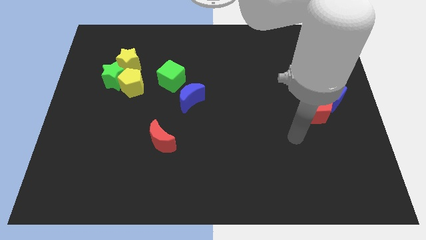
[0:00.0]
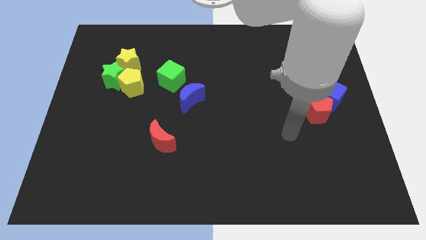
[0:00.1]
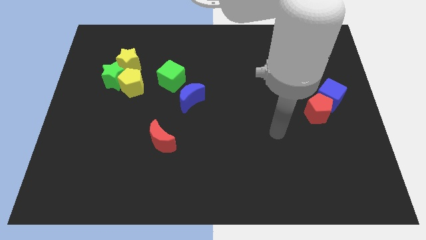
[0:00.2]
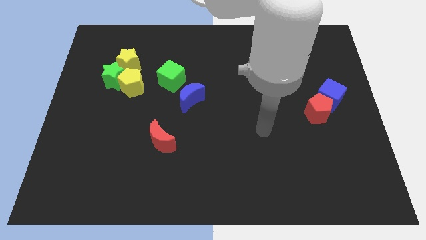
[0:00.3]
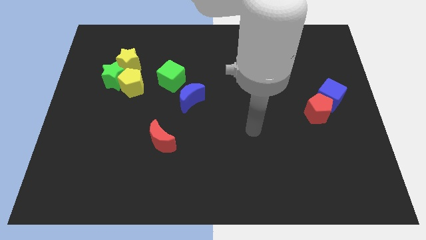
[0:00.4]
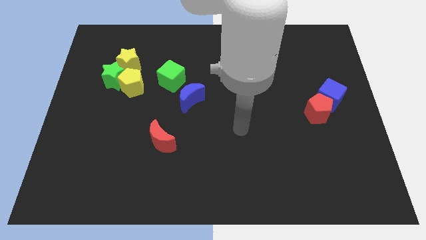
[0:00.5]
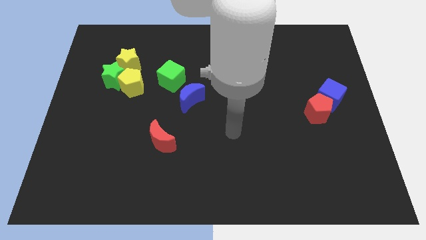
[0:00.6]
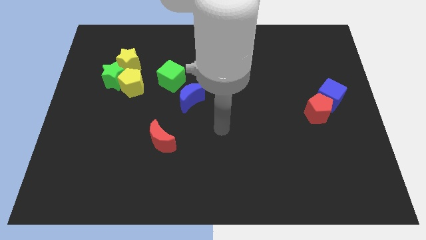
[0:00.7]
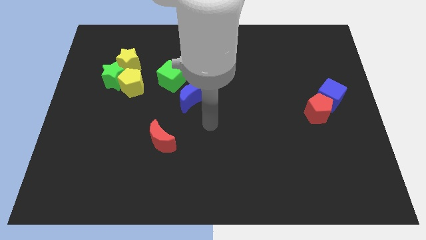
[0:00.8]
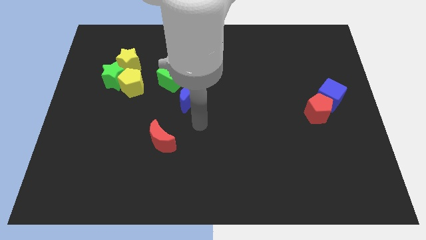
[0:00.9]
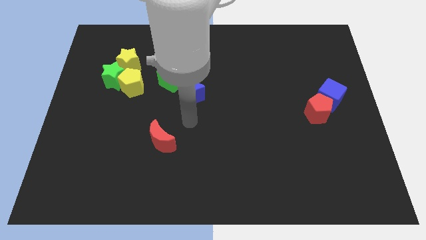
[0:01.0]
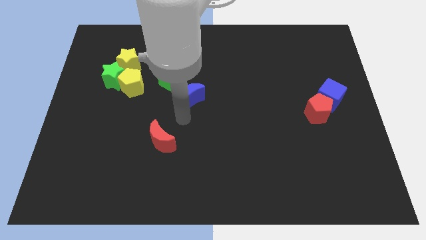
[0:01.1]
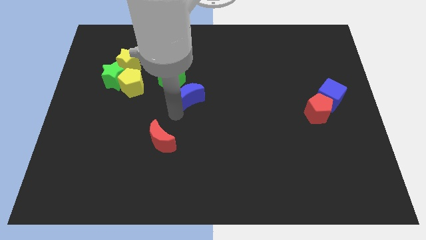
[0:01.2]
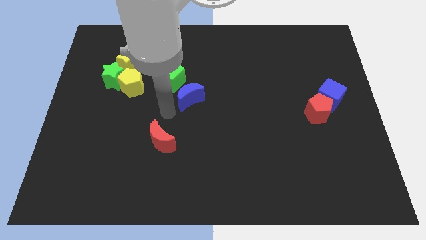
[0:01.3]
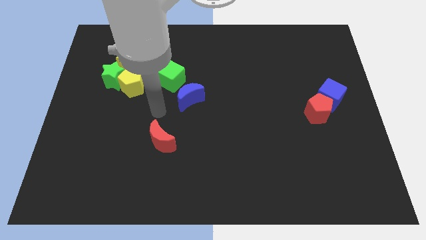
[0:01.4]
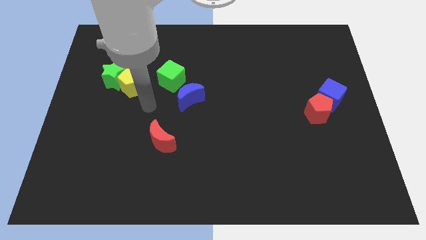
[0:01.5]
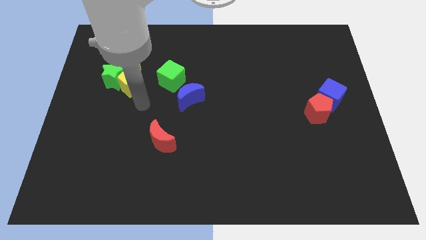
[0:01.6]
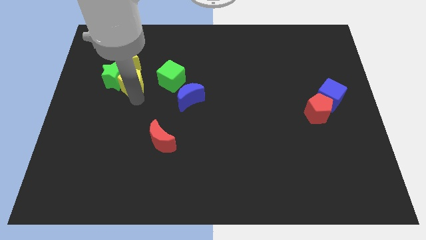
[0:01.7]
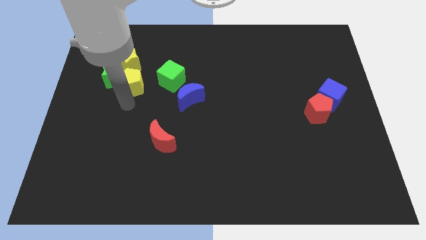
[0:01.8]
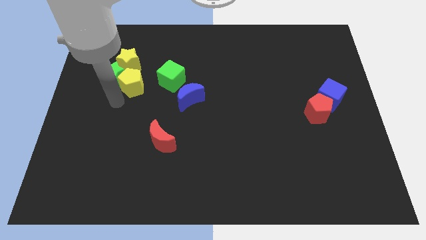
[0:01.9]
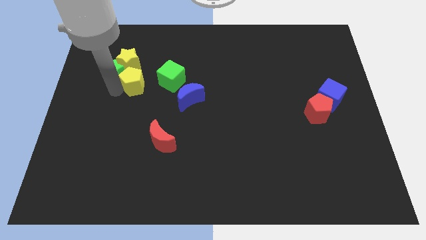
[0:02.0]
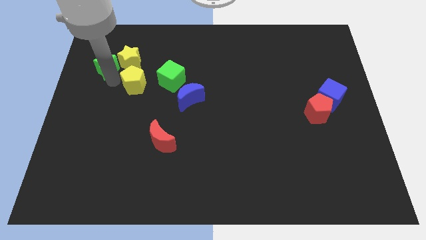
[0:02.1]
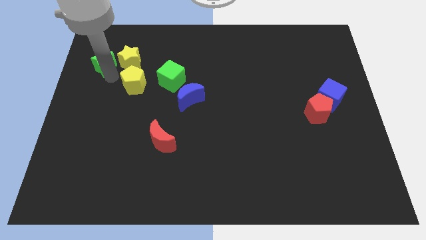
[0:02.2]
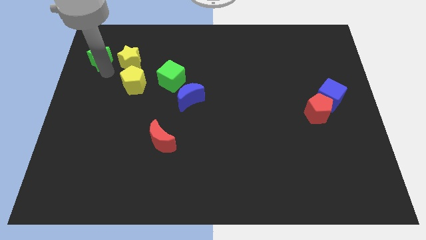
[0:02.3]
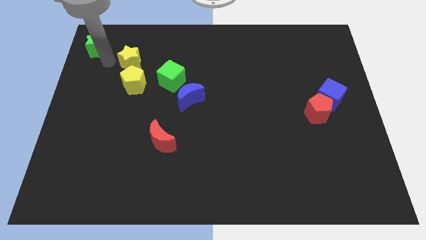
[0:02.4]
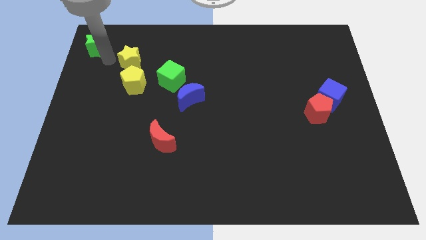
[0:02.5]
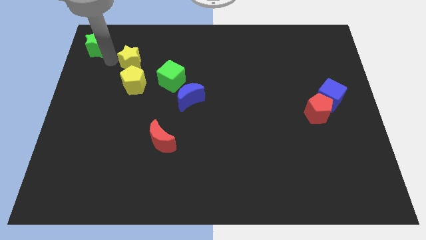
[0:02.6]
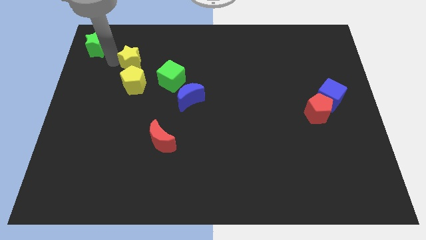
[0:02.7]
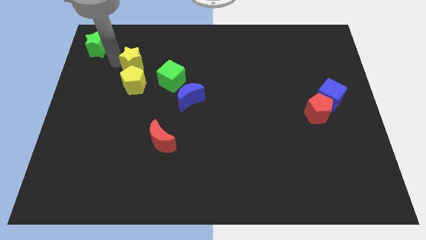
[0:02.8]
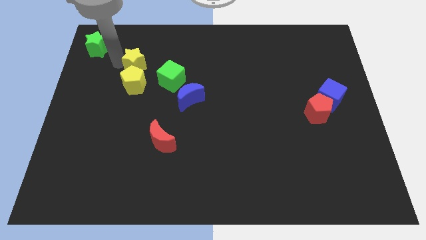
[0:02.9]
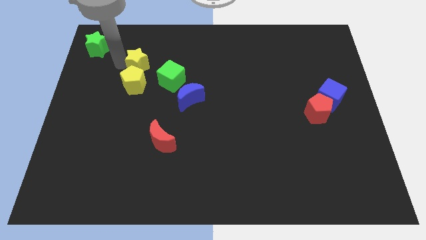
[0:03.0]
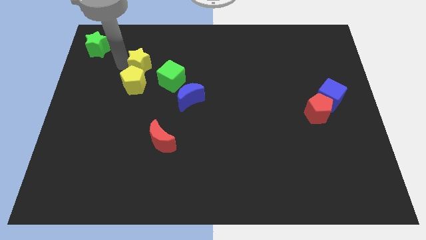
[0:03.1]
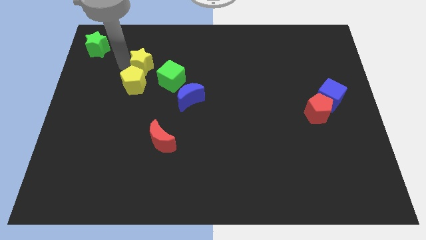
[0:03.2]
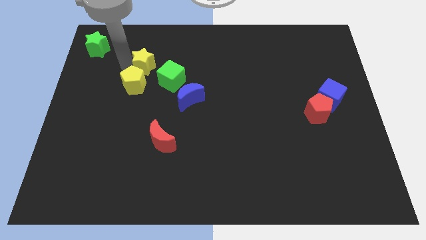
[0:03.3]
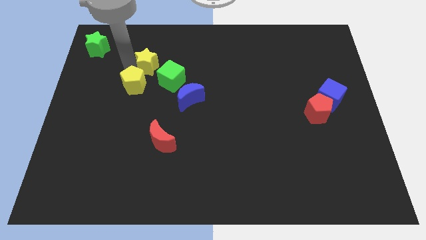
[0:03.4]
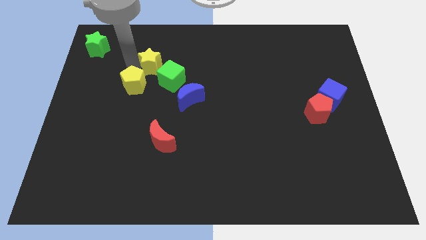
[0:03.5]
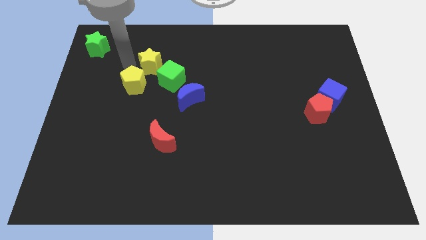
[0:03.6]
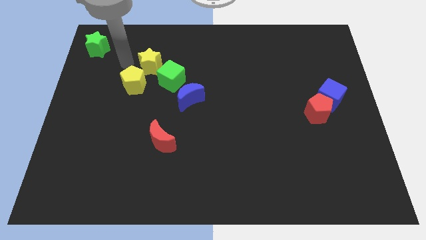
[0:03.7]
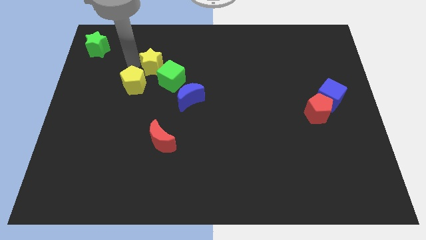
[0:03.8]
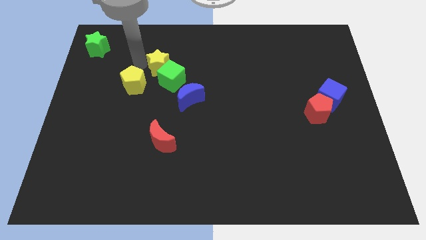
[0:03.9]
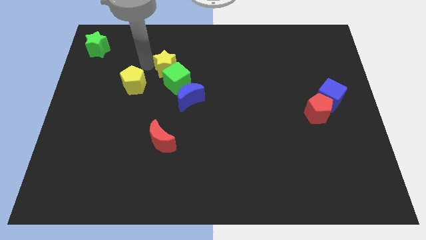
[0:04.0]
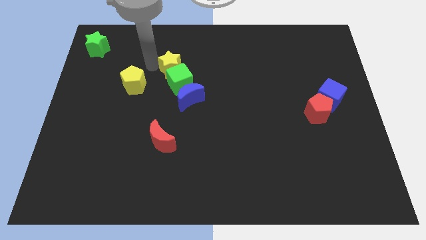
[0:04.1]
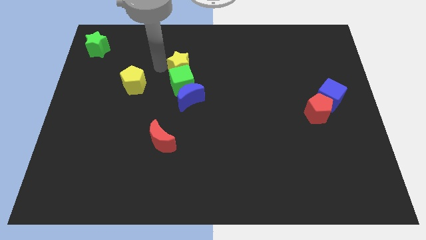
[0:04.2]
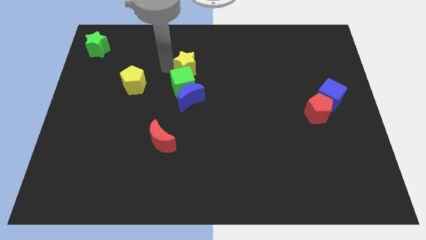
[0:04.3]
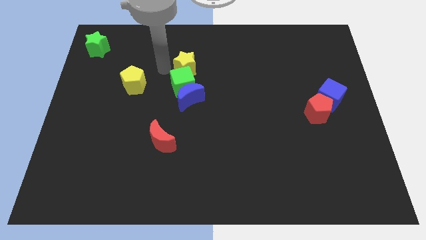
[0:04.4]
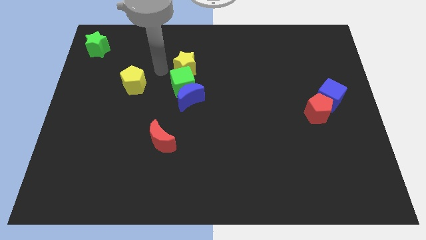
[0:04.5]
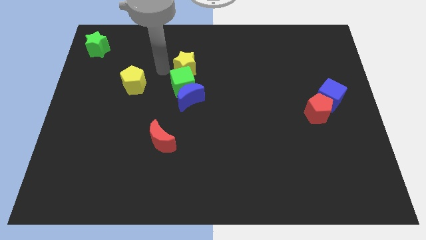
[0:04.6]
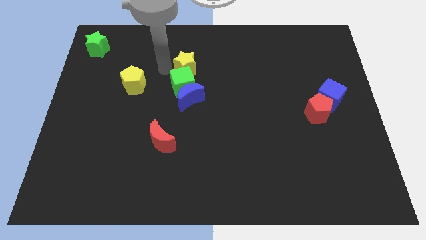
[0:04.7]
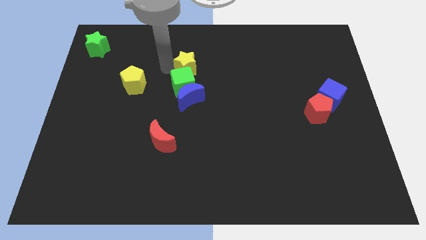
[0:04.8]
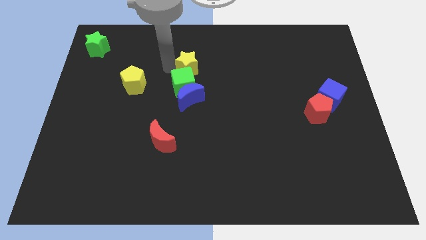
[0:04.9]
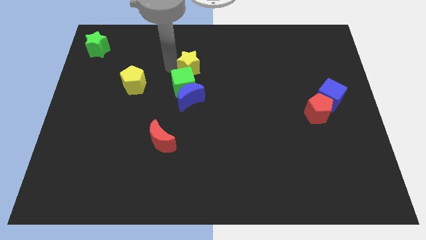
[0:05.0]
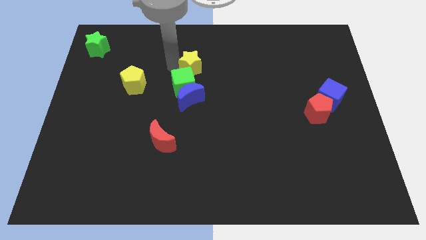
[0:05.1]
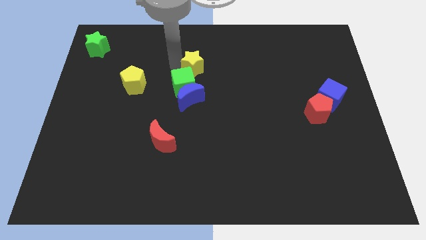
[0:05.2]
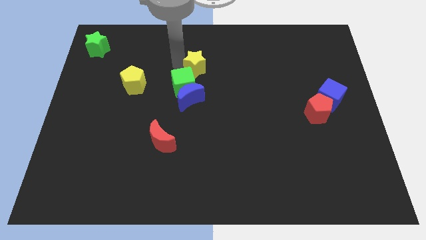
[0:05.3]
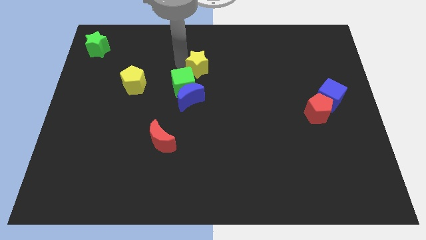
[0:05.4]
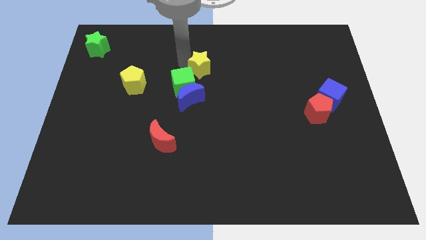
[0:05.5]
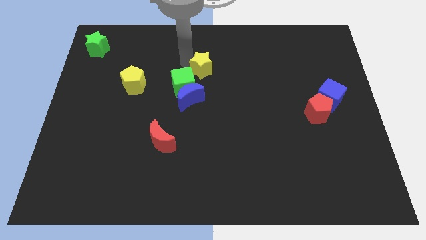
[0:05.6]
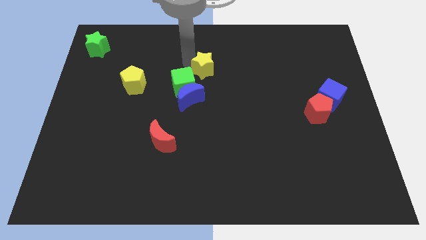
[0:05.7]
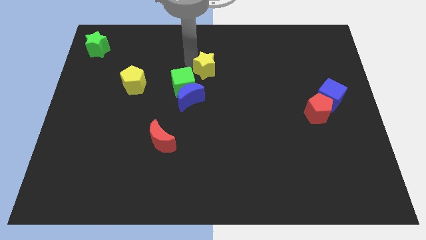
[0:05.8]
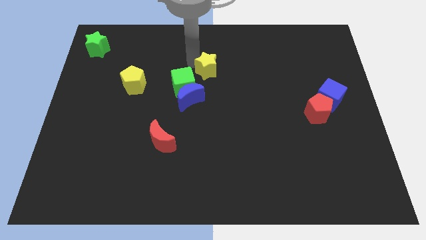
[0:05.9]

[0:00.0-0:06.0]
push the yellow star to the right

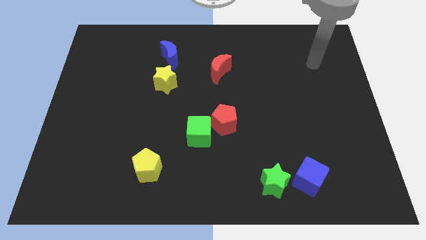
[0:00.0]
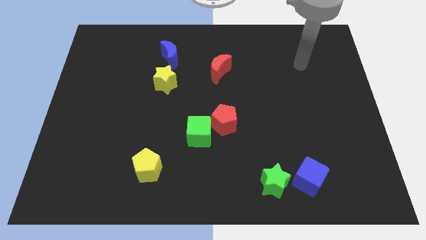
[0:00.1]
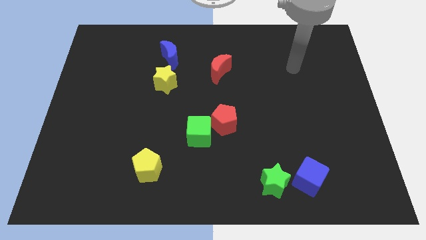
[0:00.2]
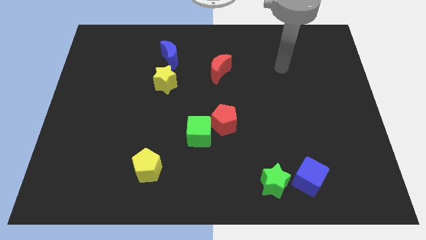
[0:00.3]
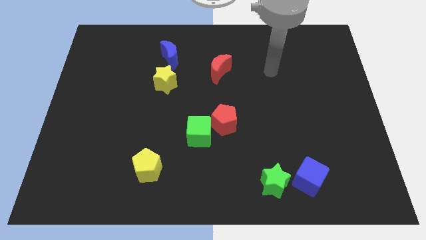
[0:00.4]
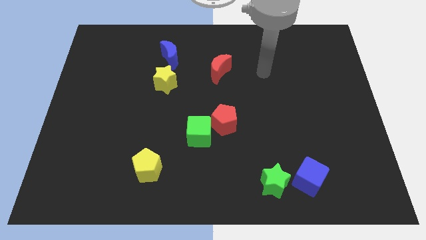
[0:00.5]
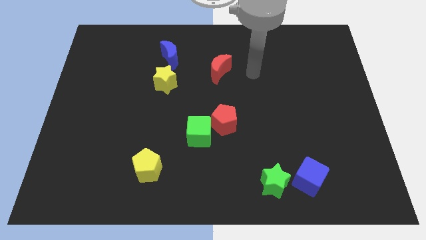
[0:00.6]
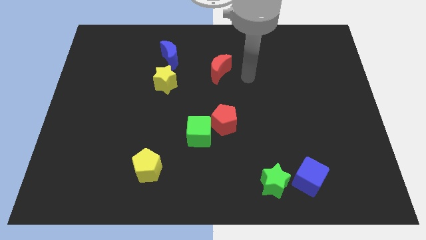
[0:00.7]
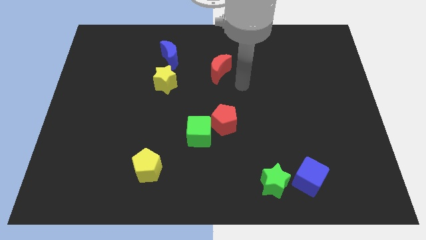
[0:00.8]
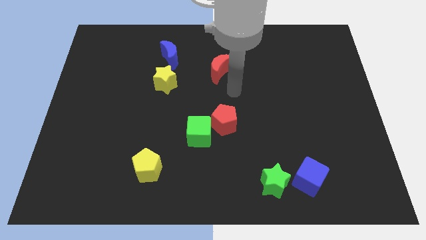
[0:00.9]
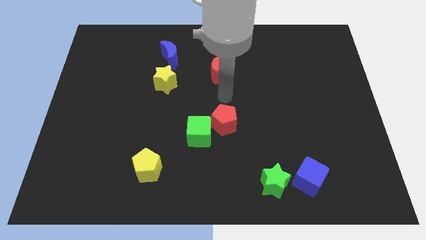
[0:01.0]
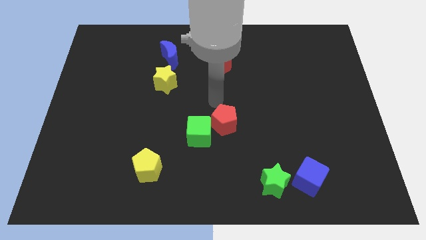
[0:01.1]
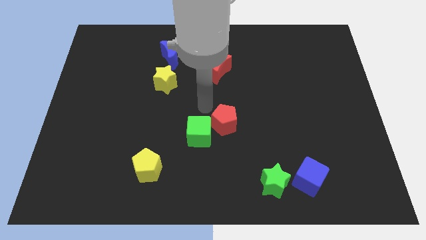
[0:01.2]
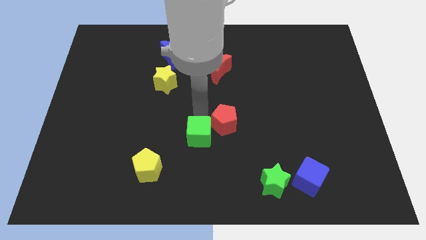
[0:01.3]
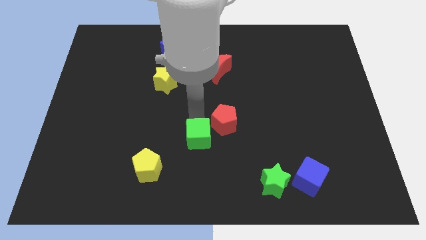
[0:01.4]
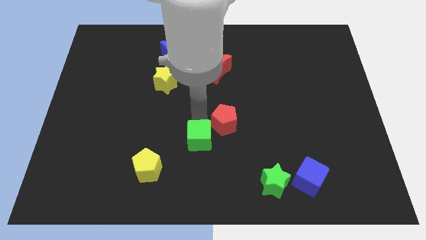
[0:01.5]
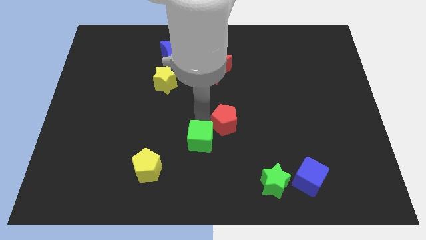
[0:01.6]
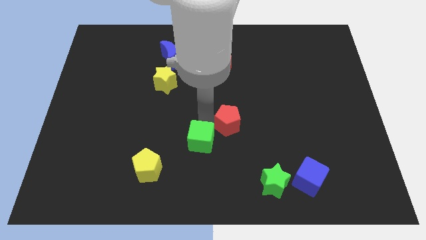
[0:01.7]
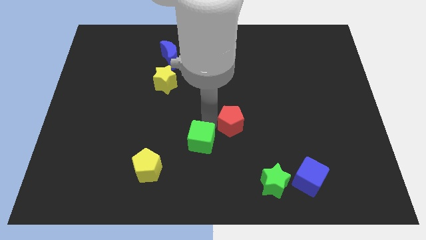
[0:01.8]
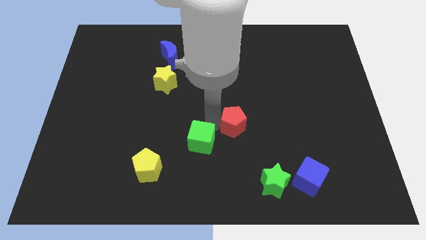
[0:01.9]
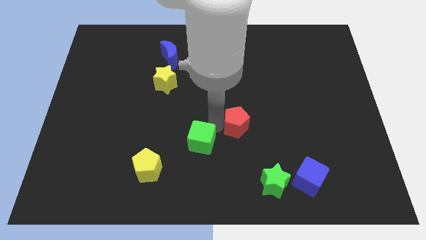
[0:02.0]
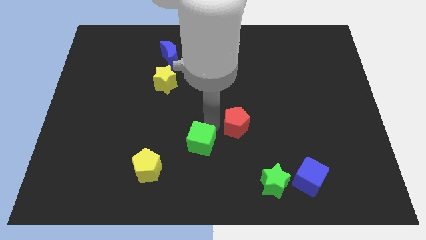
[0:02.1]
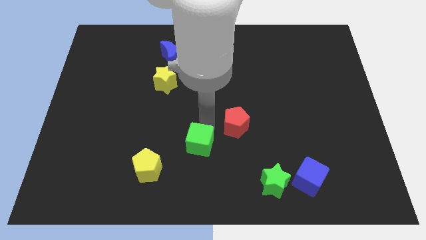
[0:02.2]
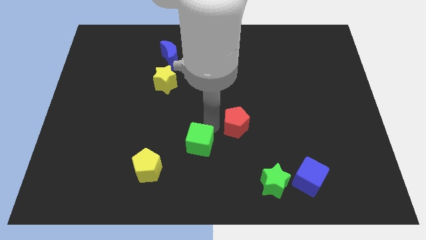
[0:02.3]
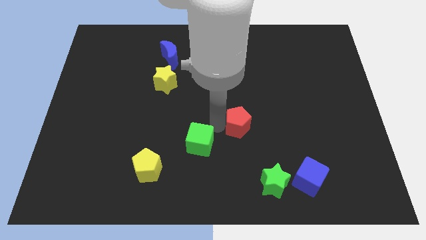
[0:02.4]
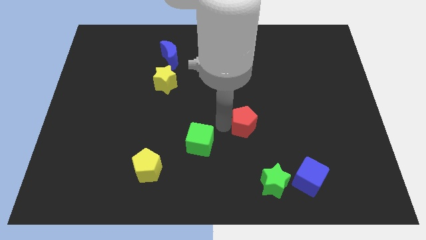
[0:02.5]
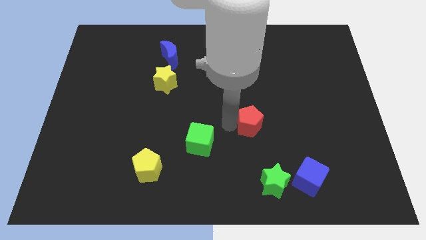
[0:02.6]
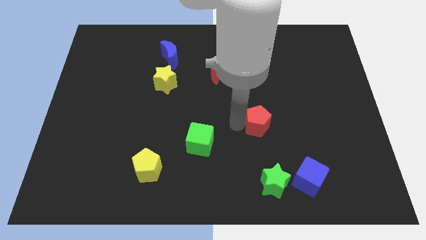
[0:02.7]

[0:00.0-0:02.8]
slide the red pentagon right a little bit
